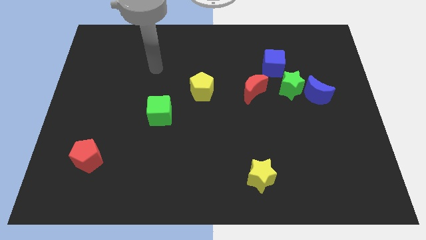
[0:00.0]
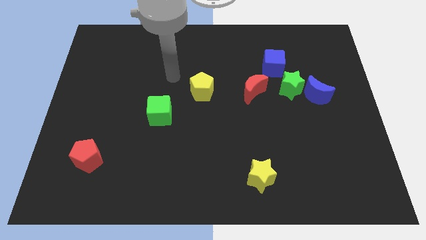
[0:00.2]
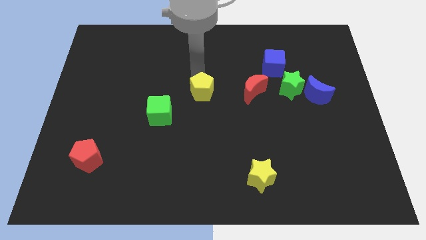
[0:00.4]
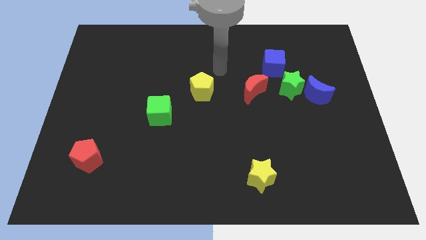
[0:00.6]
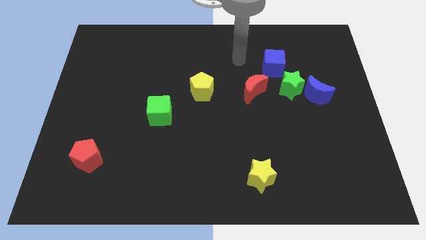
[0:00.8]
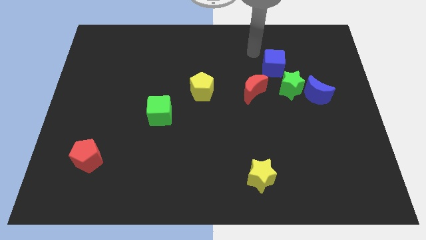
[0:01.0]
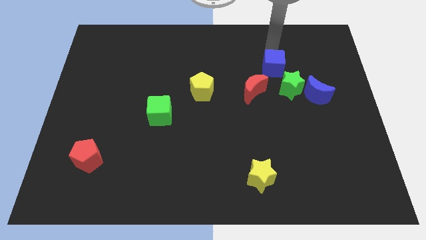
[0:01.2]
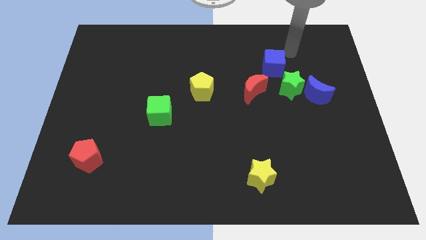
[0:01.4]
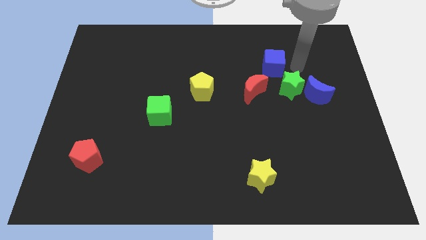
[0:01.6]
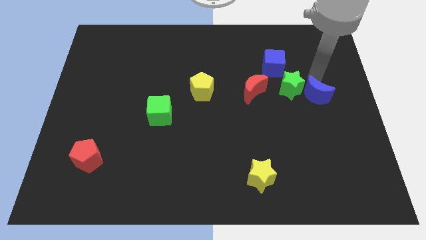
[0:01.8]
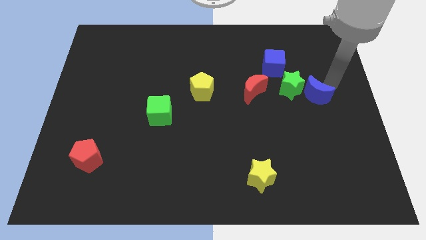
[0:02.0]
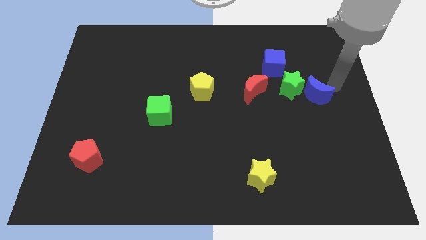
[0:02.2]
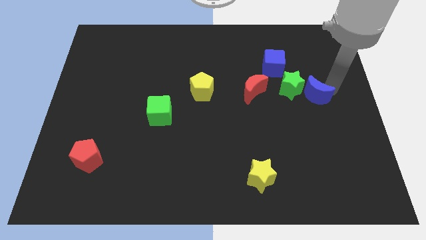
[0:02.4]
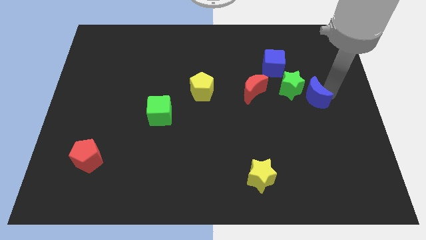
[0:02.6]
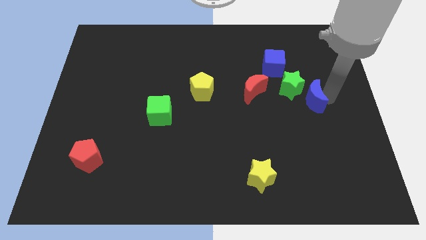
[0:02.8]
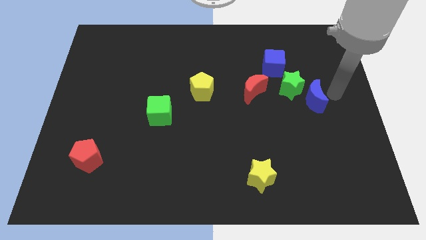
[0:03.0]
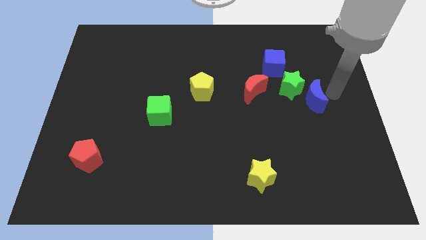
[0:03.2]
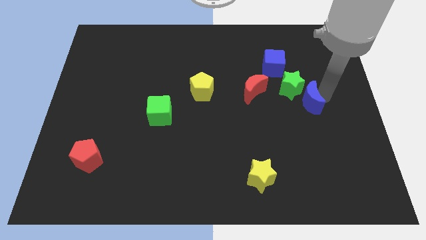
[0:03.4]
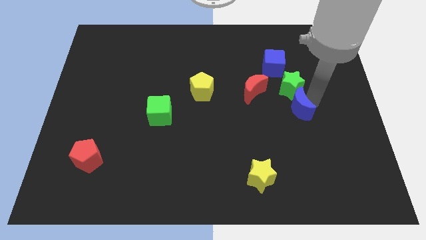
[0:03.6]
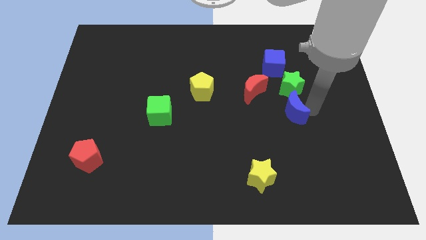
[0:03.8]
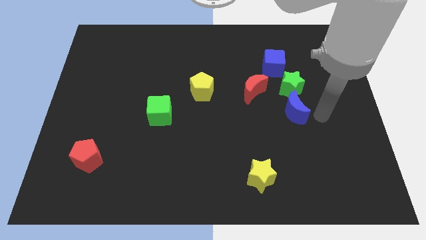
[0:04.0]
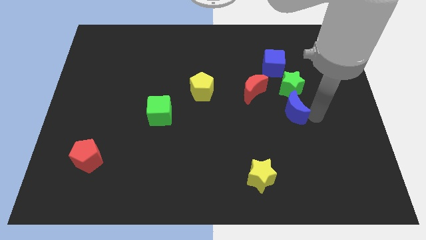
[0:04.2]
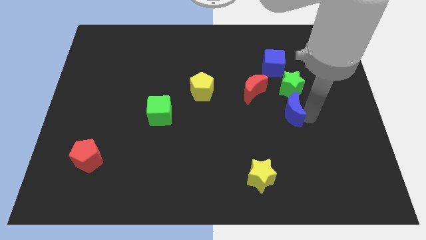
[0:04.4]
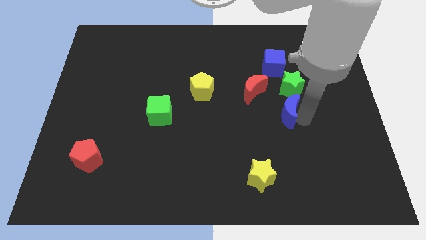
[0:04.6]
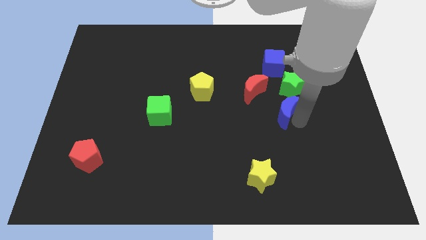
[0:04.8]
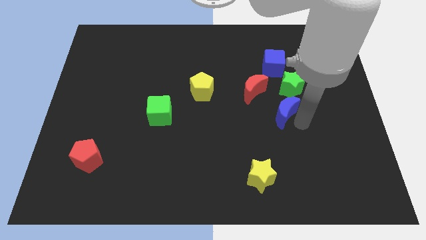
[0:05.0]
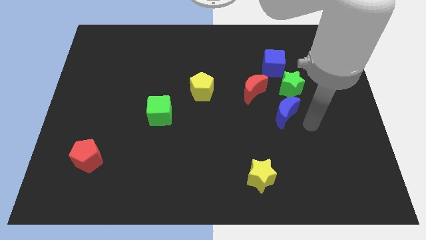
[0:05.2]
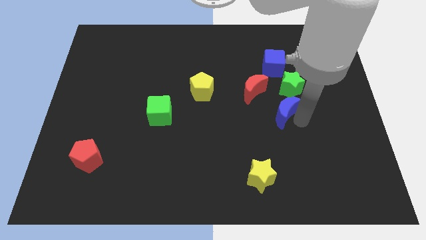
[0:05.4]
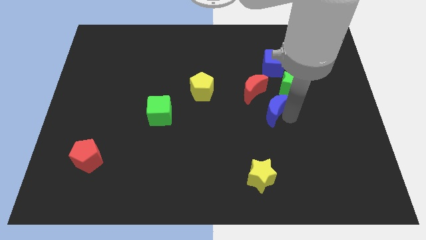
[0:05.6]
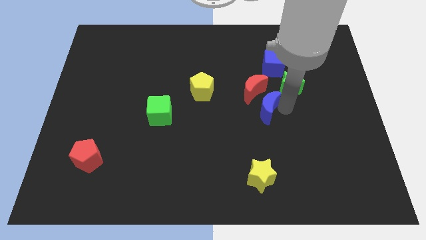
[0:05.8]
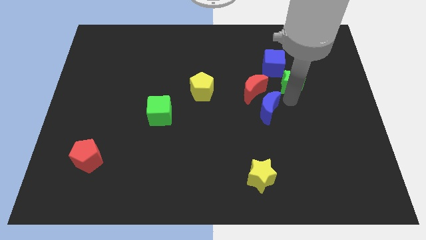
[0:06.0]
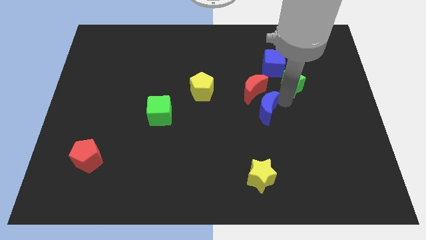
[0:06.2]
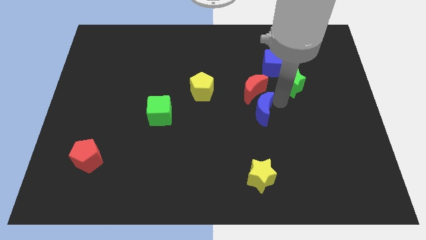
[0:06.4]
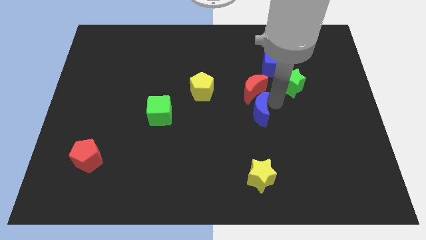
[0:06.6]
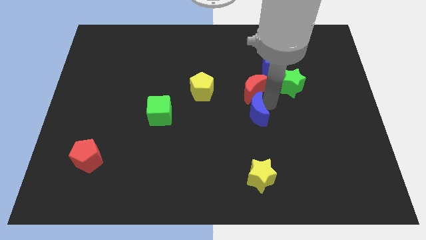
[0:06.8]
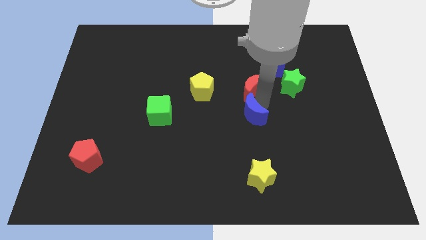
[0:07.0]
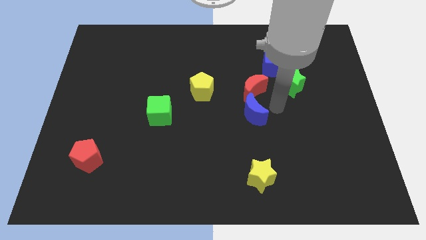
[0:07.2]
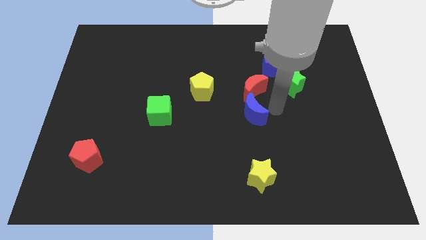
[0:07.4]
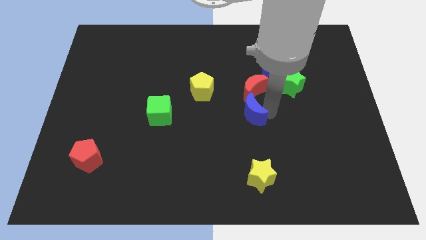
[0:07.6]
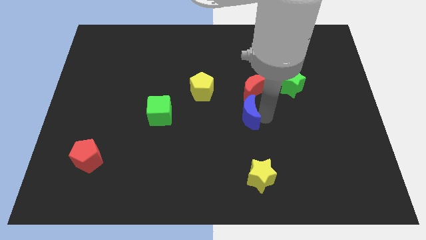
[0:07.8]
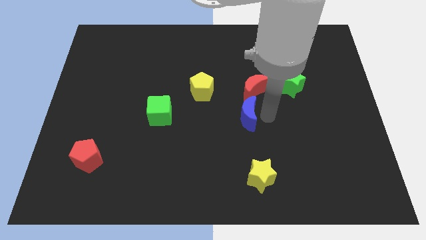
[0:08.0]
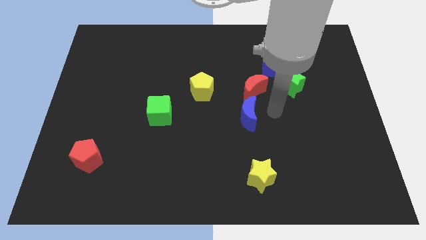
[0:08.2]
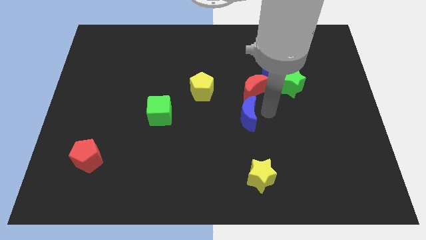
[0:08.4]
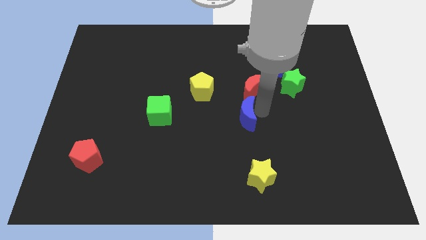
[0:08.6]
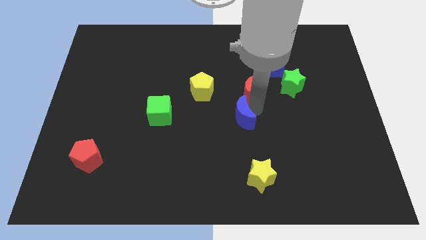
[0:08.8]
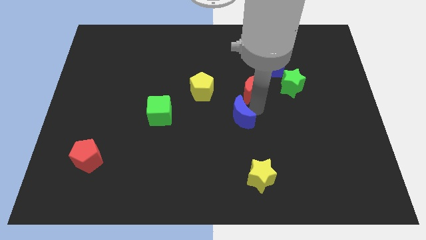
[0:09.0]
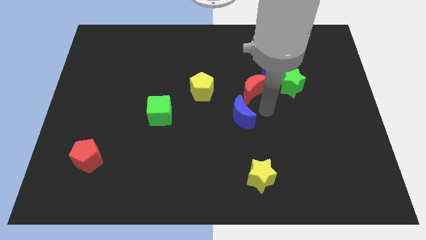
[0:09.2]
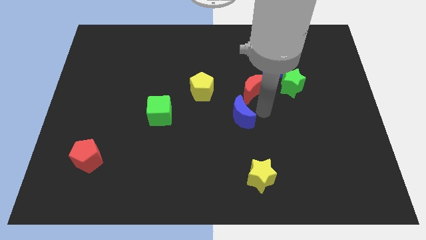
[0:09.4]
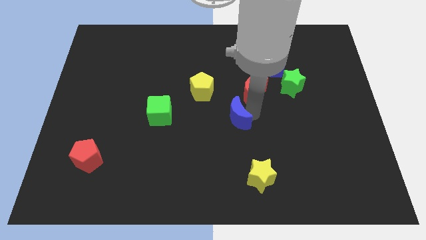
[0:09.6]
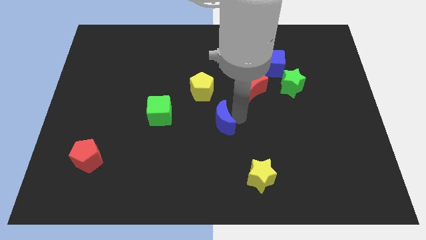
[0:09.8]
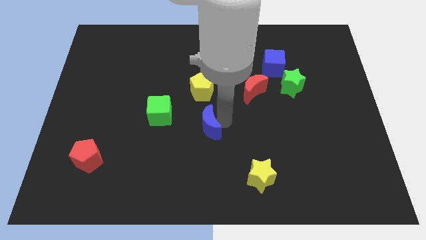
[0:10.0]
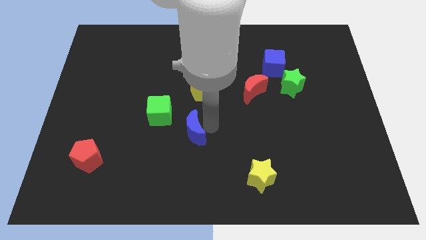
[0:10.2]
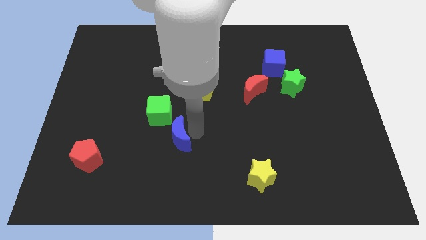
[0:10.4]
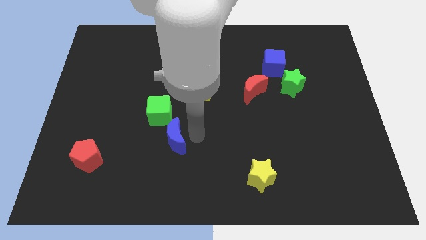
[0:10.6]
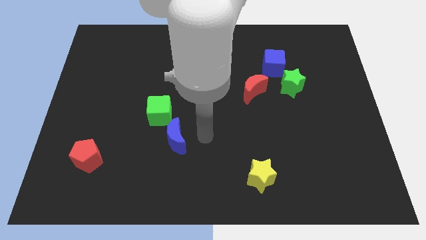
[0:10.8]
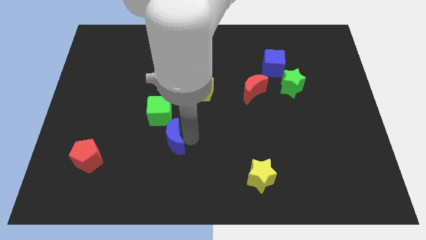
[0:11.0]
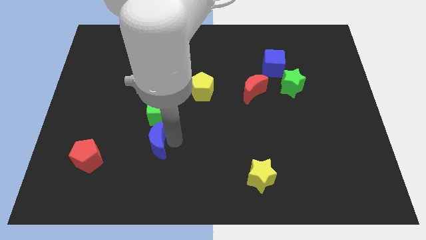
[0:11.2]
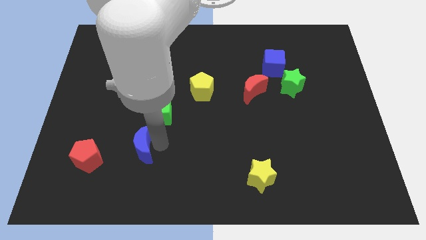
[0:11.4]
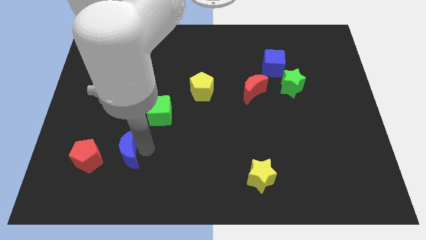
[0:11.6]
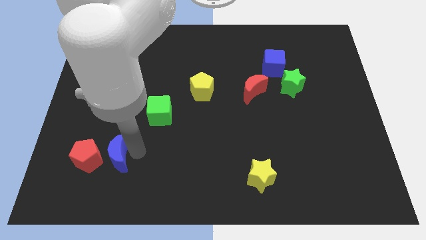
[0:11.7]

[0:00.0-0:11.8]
move the blue moon to the red pentagon

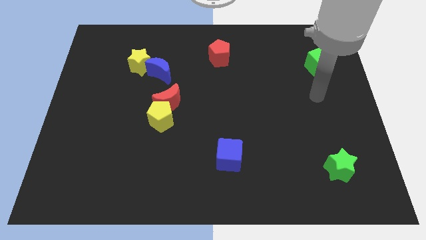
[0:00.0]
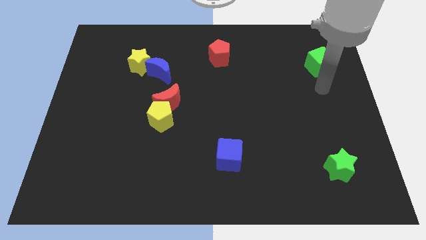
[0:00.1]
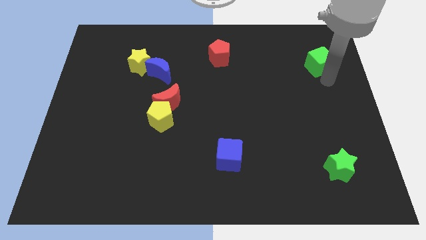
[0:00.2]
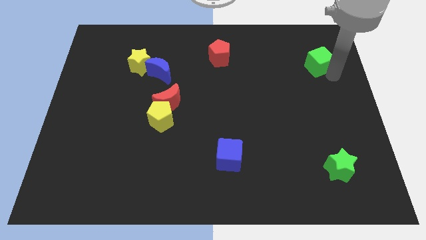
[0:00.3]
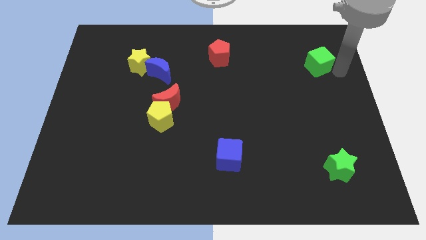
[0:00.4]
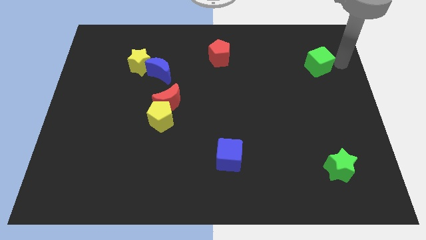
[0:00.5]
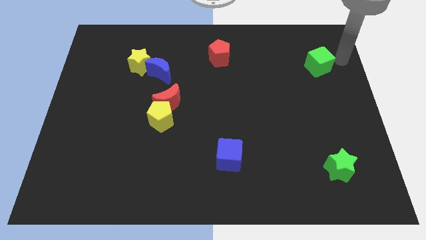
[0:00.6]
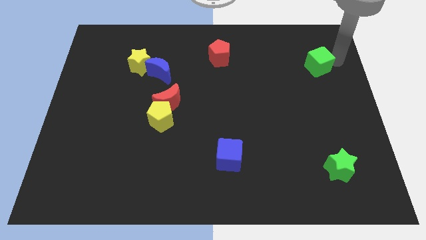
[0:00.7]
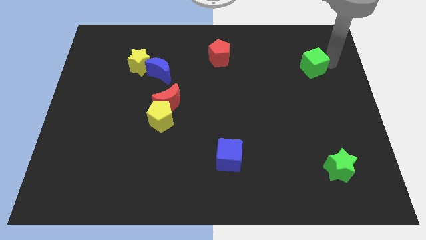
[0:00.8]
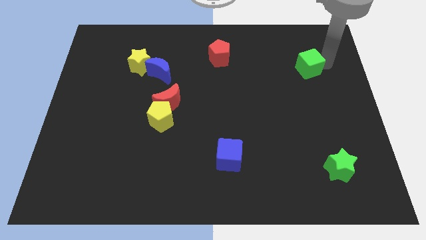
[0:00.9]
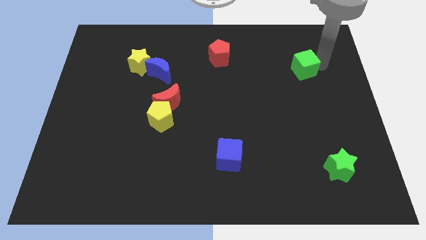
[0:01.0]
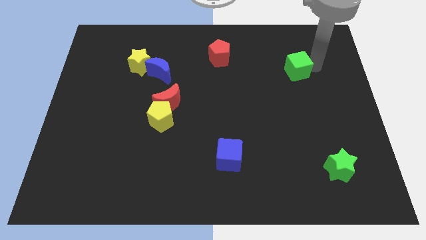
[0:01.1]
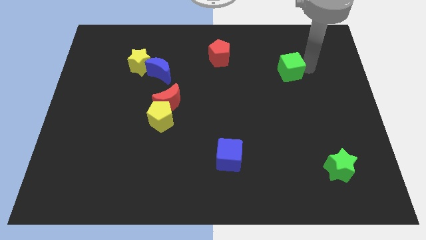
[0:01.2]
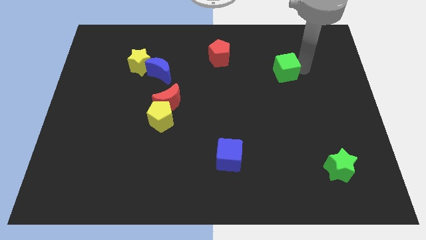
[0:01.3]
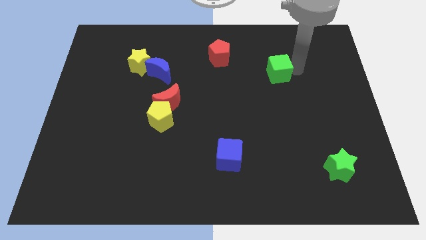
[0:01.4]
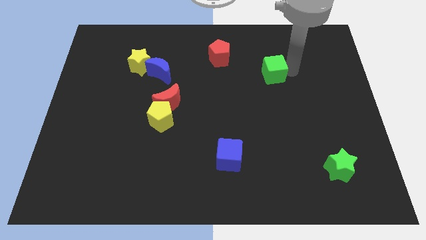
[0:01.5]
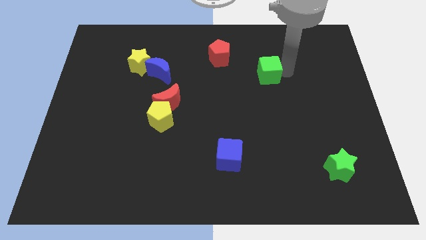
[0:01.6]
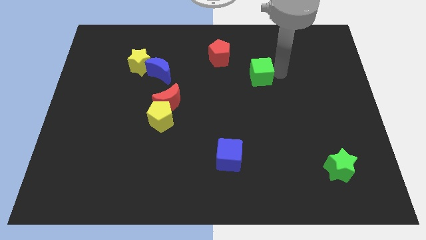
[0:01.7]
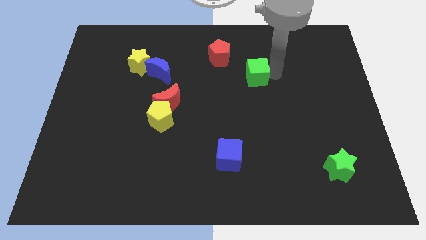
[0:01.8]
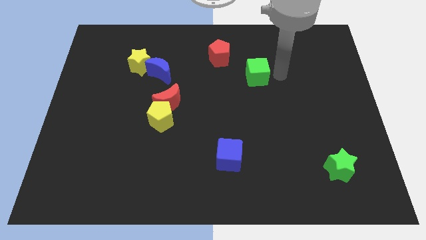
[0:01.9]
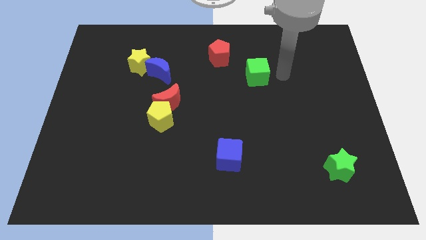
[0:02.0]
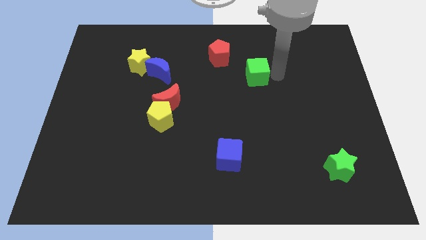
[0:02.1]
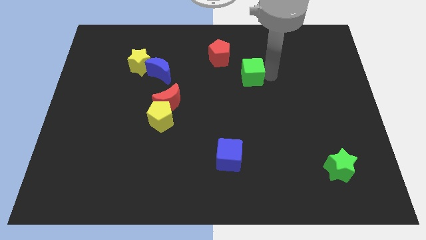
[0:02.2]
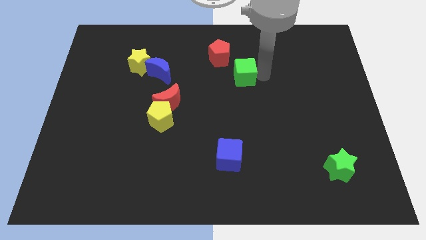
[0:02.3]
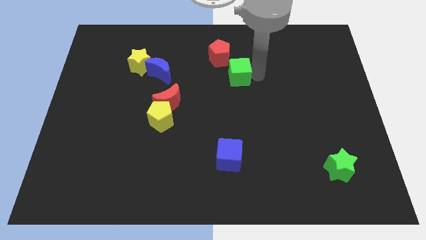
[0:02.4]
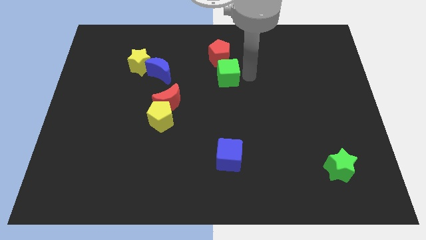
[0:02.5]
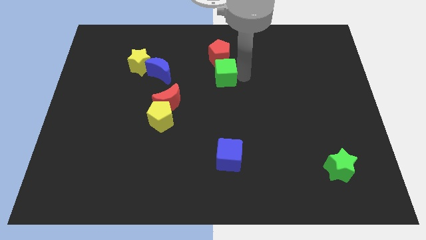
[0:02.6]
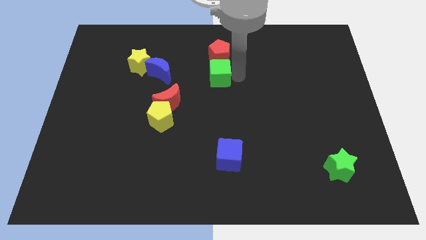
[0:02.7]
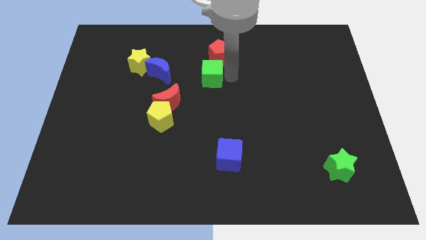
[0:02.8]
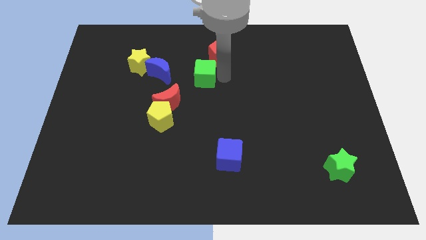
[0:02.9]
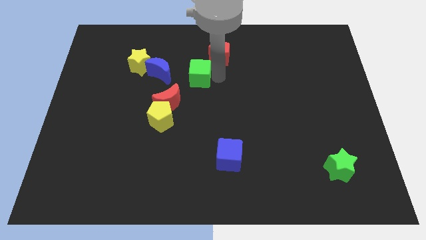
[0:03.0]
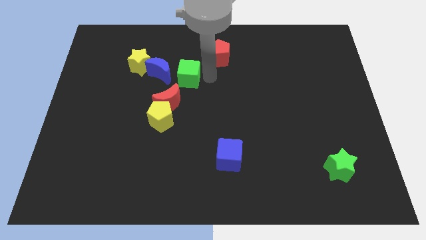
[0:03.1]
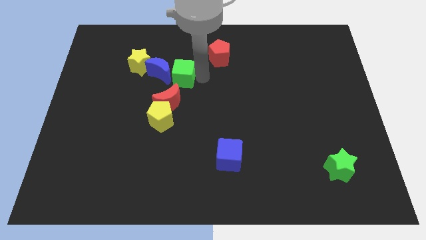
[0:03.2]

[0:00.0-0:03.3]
move the green cube close to the blue moon
